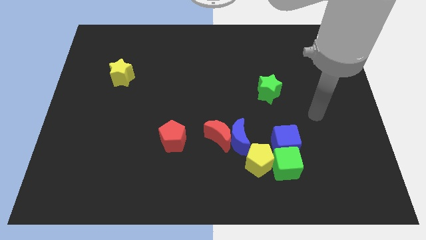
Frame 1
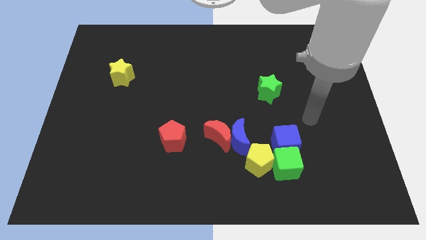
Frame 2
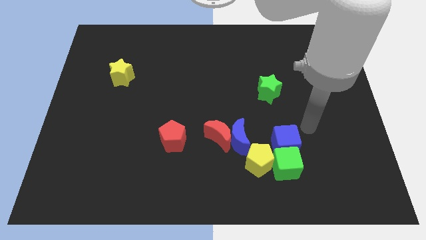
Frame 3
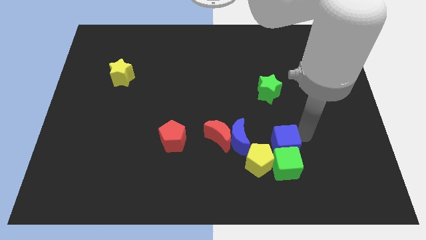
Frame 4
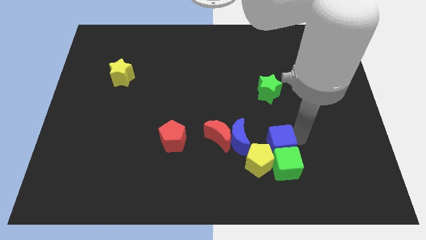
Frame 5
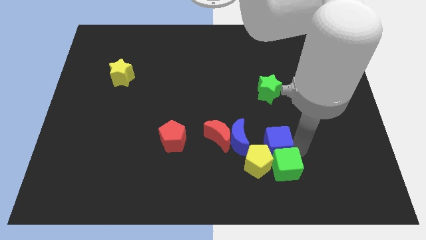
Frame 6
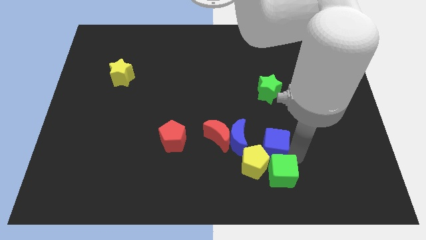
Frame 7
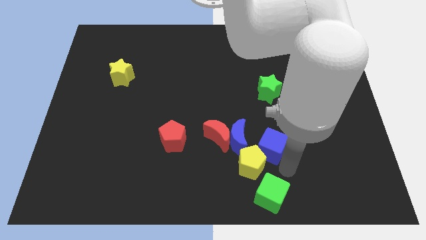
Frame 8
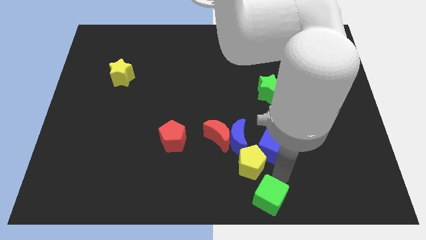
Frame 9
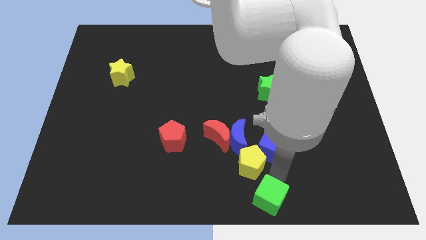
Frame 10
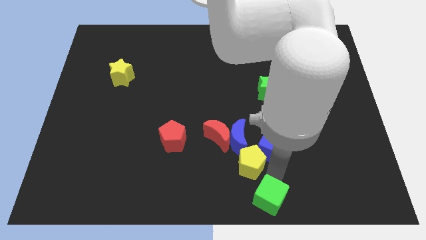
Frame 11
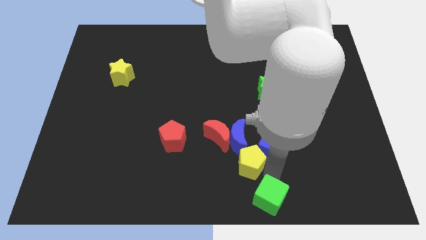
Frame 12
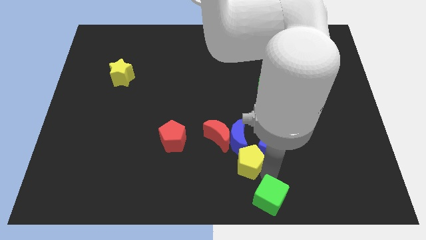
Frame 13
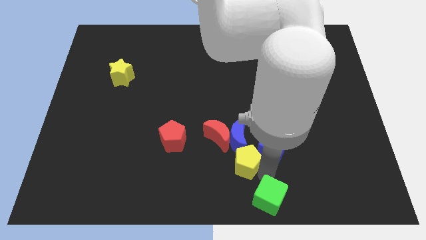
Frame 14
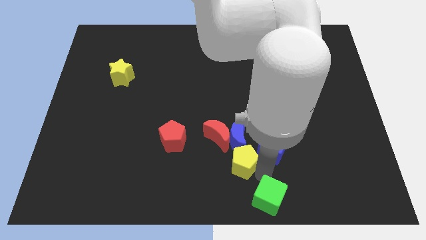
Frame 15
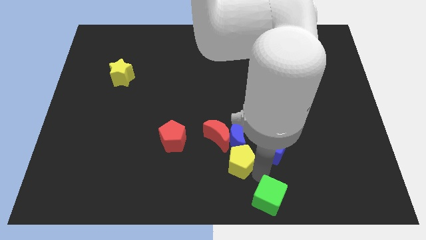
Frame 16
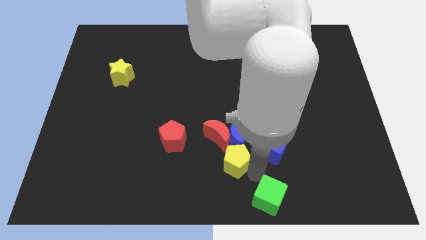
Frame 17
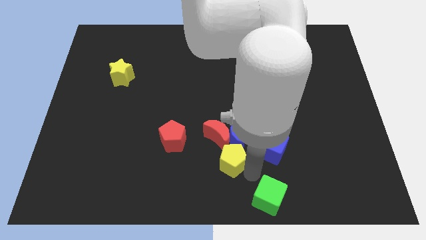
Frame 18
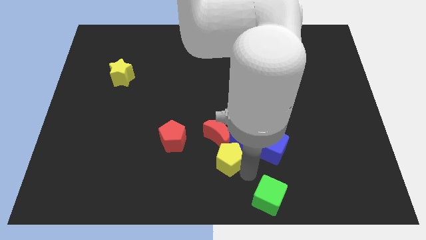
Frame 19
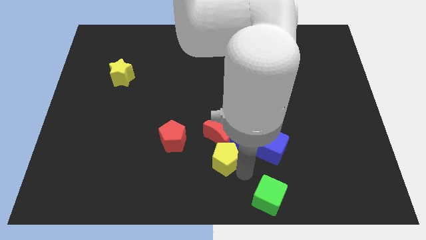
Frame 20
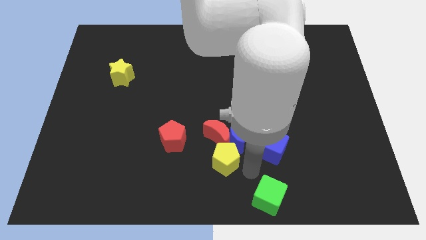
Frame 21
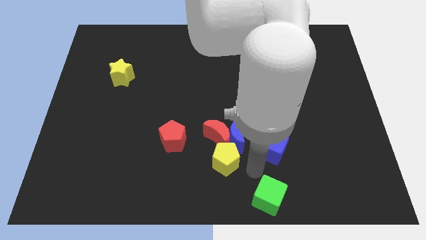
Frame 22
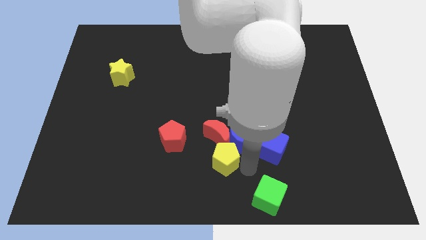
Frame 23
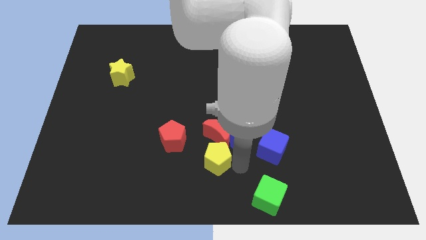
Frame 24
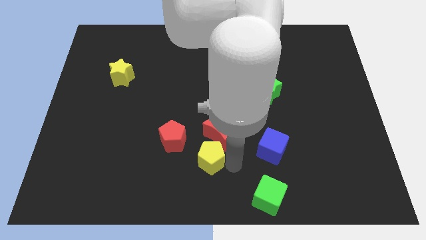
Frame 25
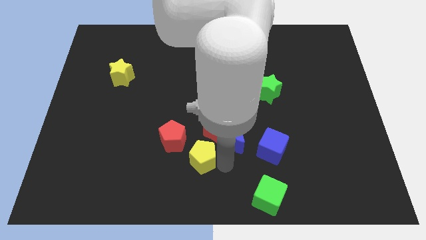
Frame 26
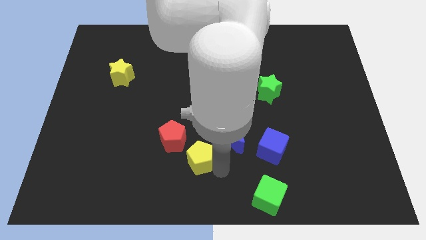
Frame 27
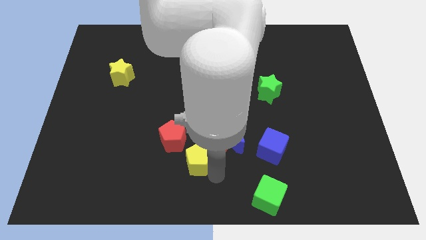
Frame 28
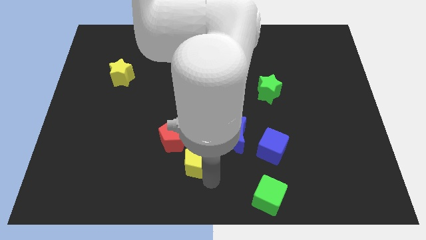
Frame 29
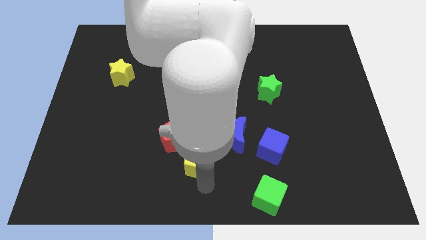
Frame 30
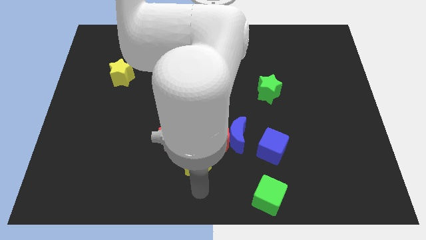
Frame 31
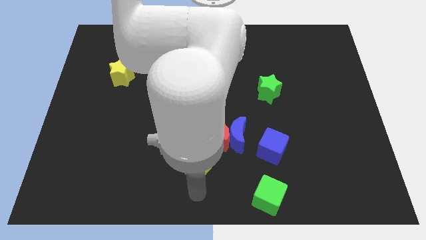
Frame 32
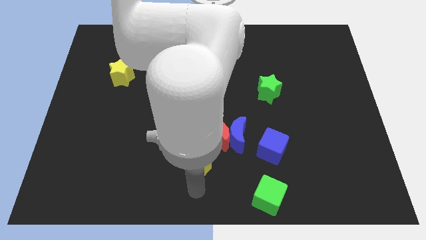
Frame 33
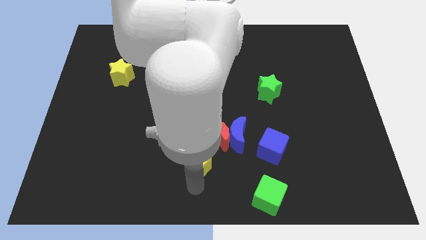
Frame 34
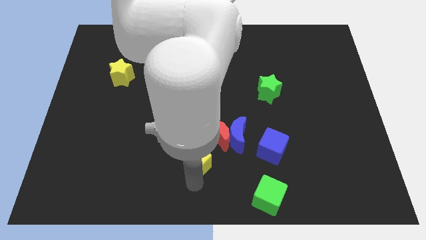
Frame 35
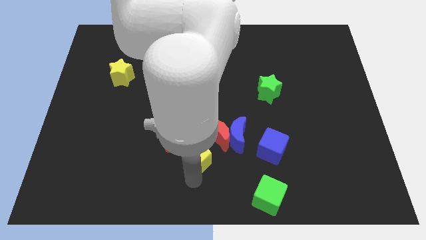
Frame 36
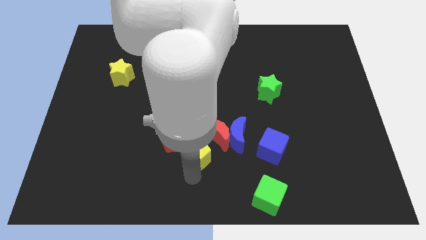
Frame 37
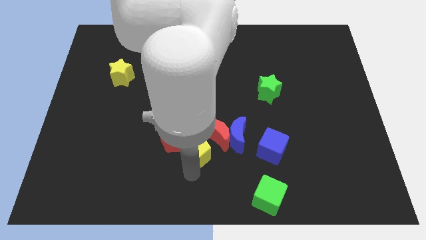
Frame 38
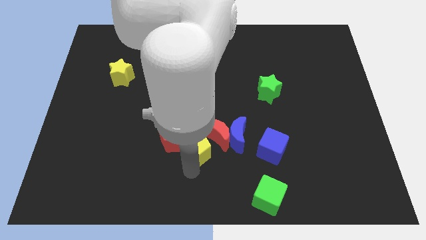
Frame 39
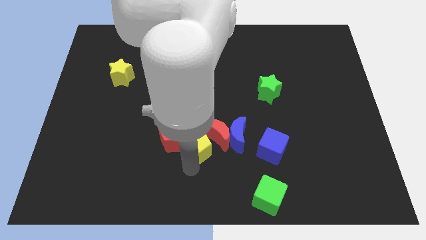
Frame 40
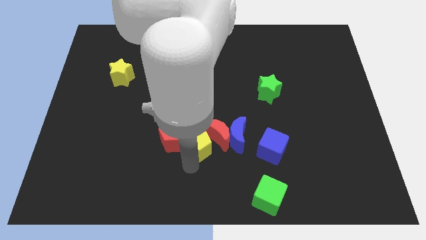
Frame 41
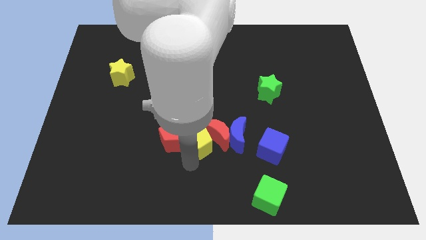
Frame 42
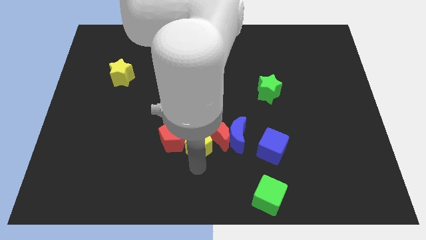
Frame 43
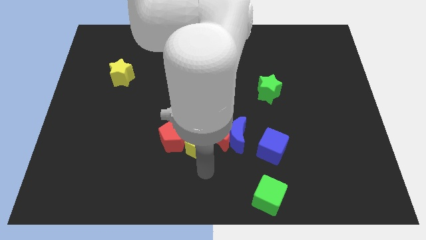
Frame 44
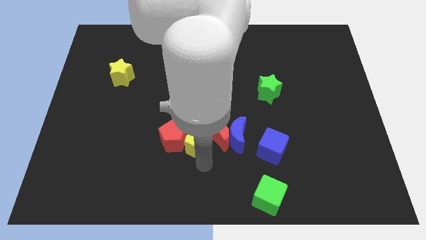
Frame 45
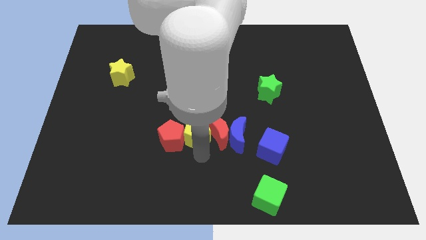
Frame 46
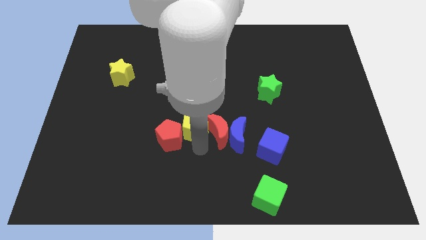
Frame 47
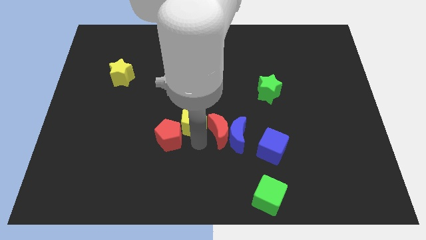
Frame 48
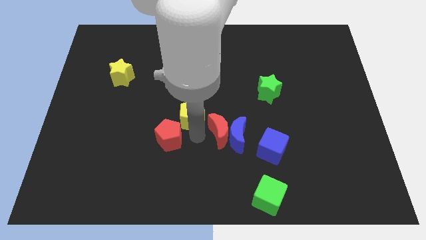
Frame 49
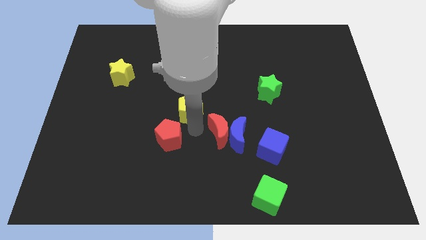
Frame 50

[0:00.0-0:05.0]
move the yellow pentagon upwards and then left

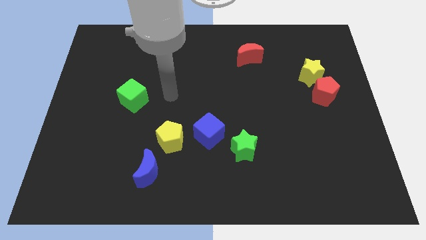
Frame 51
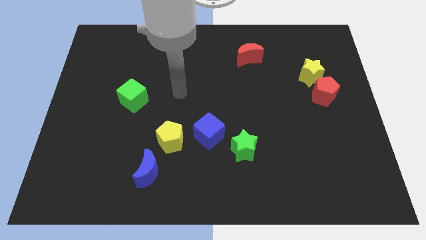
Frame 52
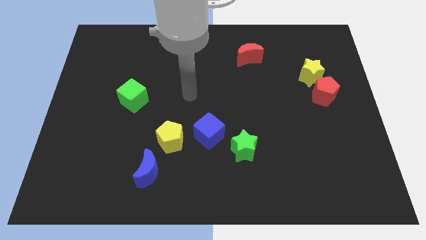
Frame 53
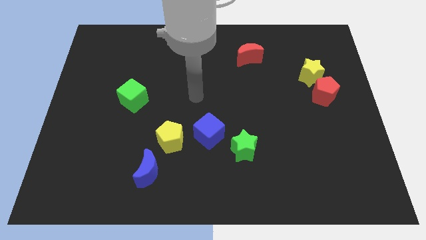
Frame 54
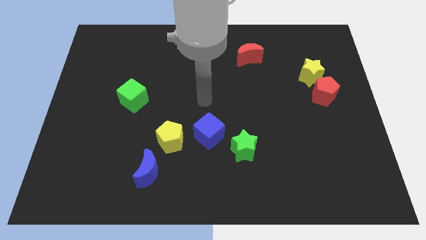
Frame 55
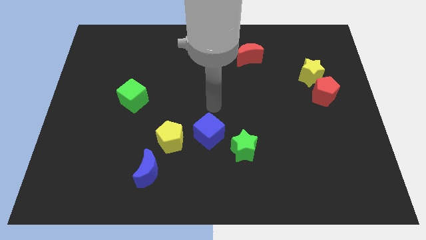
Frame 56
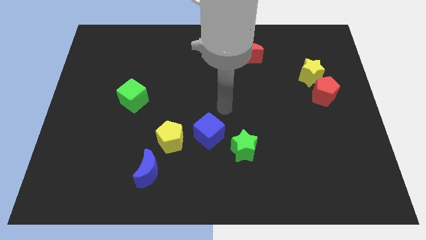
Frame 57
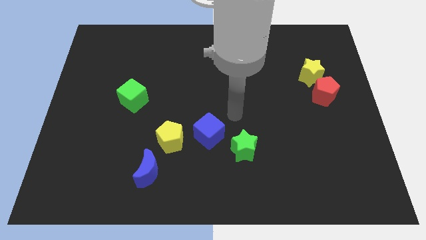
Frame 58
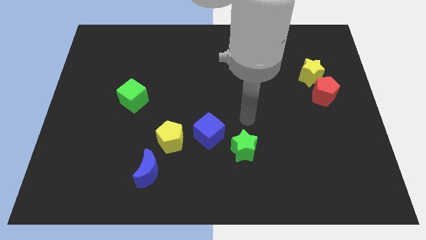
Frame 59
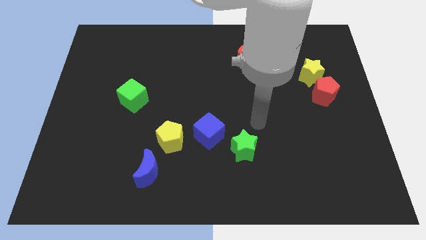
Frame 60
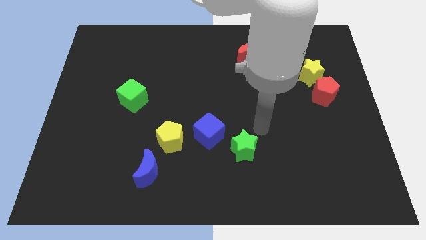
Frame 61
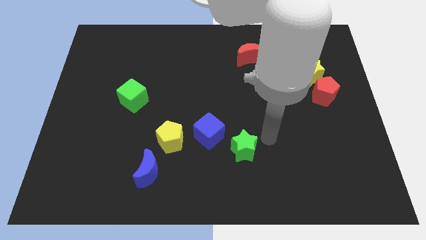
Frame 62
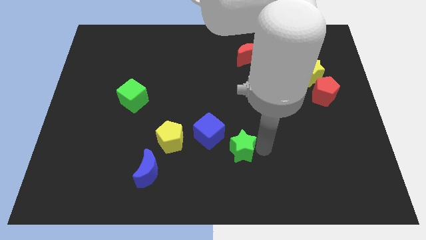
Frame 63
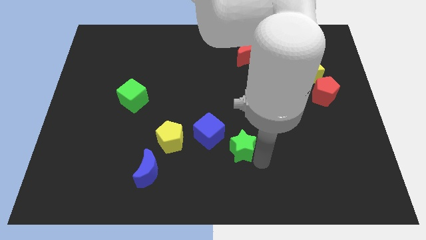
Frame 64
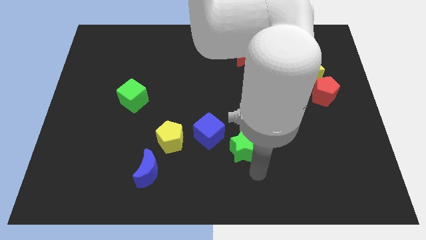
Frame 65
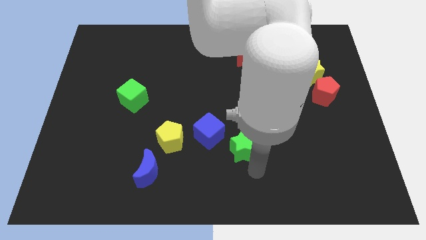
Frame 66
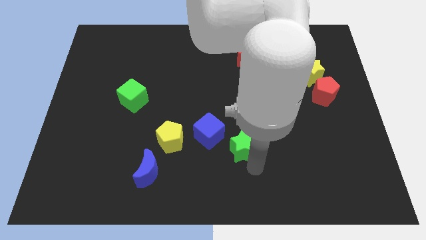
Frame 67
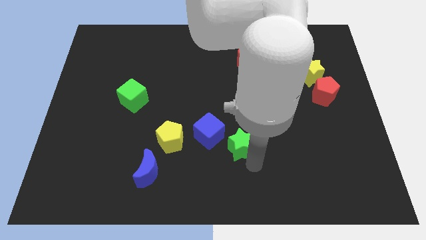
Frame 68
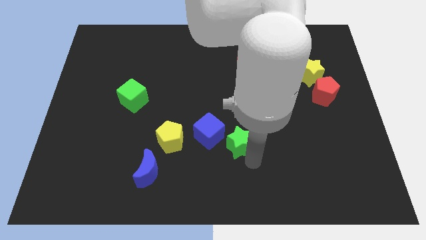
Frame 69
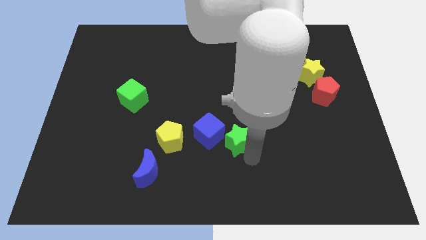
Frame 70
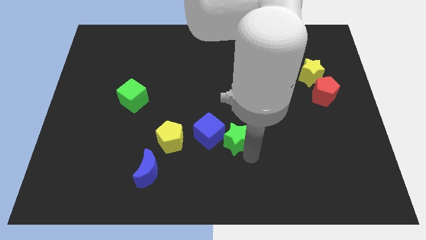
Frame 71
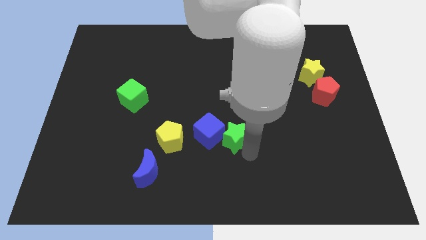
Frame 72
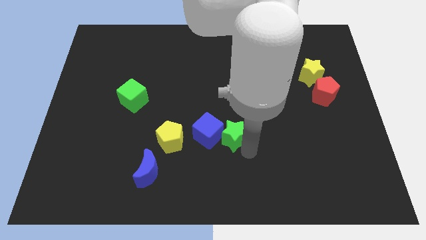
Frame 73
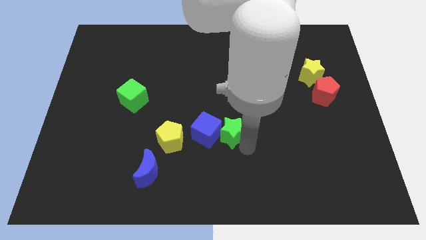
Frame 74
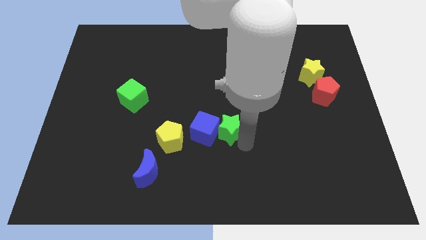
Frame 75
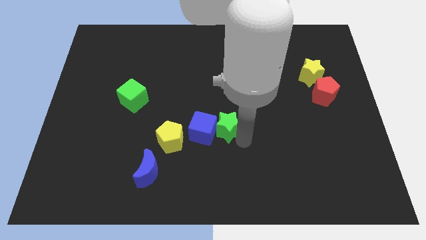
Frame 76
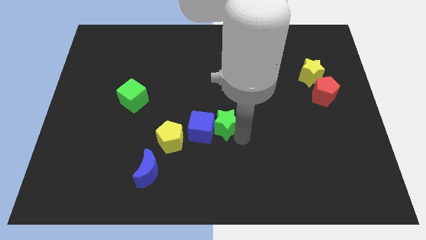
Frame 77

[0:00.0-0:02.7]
move the green star a bit up and to the left diagonally

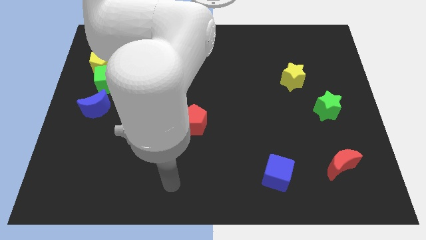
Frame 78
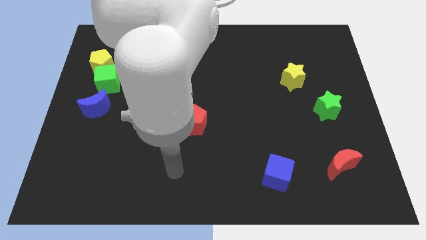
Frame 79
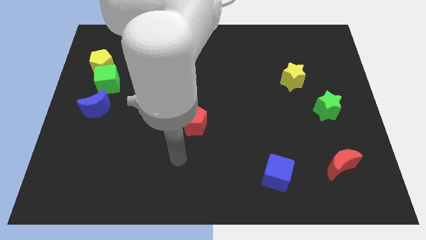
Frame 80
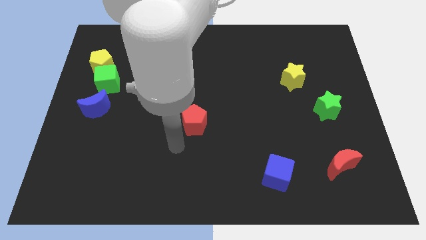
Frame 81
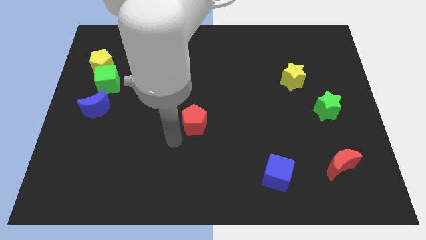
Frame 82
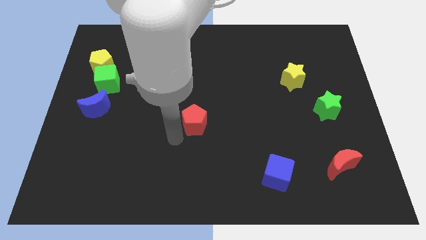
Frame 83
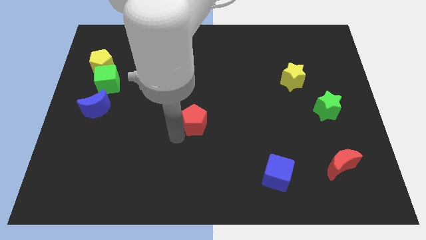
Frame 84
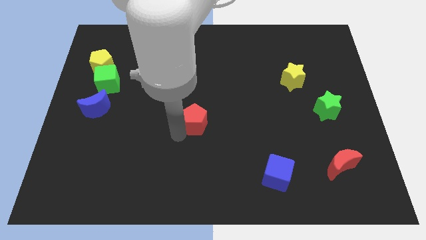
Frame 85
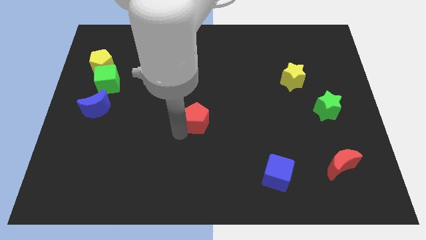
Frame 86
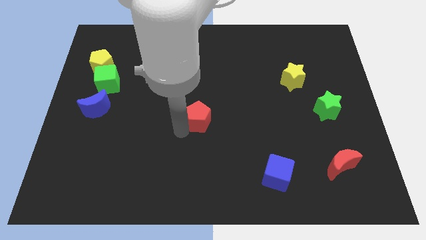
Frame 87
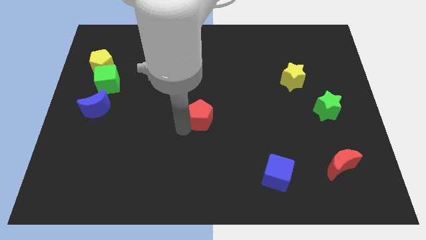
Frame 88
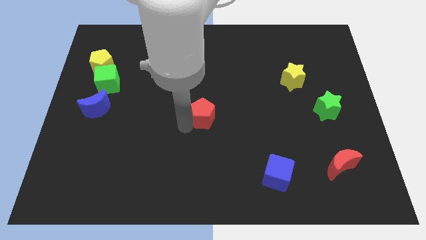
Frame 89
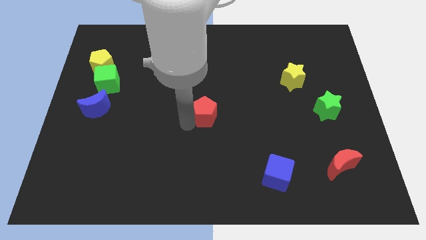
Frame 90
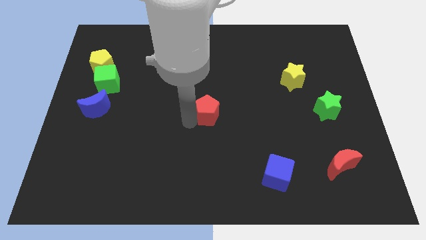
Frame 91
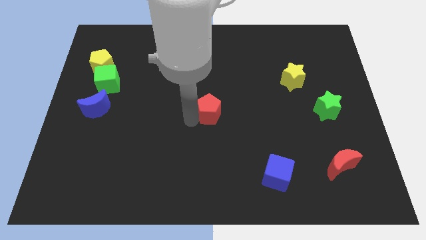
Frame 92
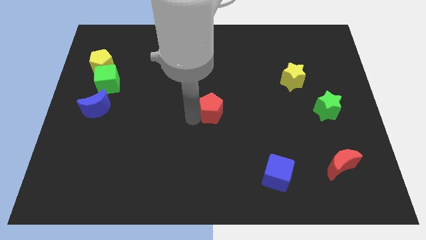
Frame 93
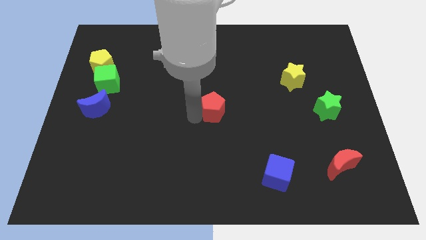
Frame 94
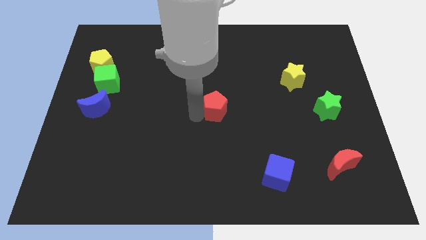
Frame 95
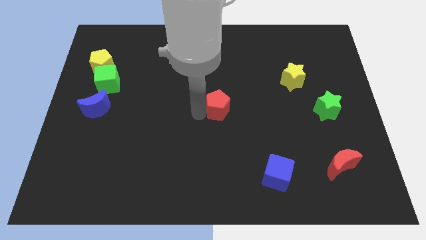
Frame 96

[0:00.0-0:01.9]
slide the red pentagon a bit diagonally upwards and right
